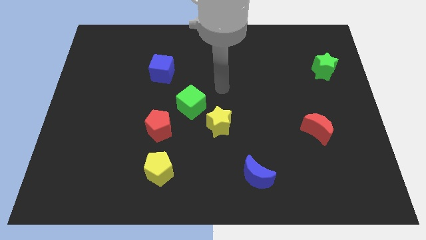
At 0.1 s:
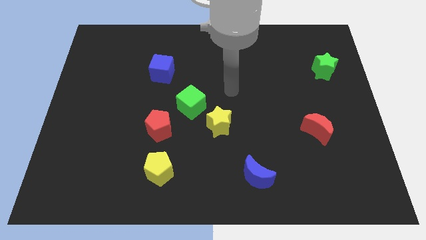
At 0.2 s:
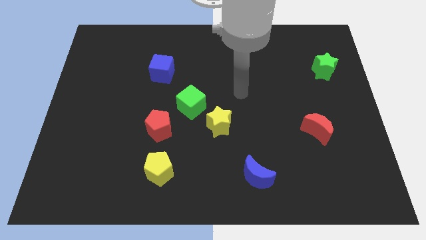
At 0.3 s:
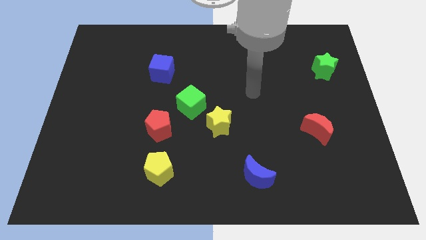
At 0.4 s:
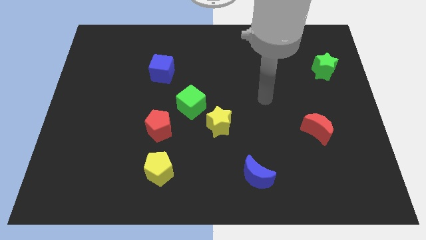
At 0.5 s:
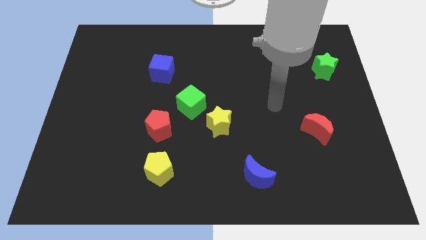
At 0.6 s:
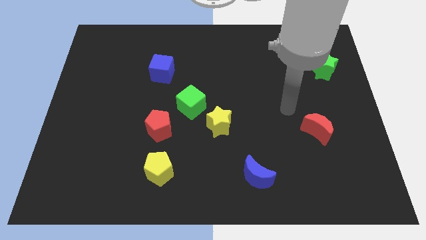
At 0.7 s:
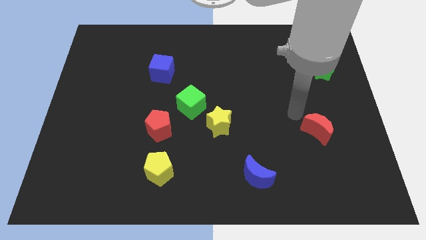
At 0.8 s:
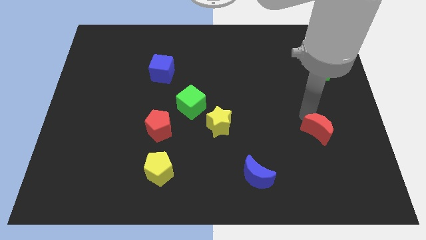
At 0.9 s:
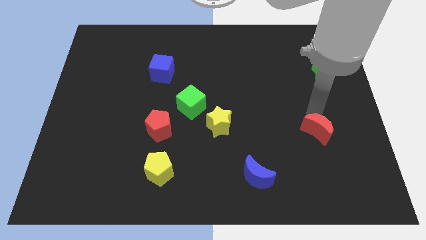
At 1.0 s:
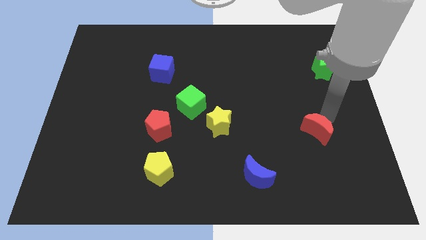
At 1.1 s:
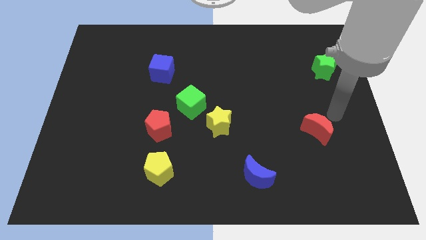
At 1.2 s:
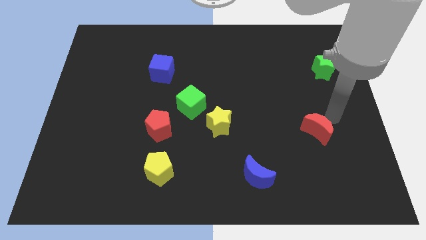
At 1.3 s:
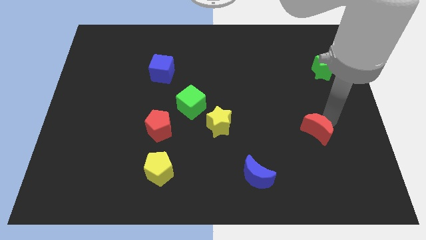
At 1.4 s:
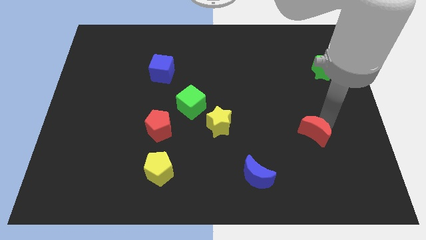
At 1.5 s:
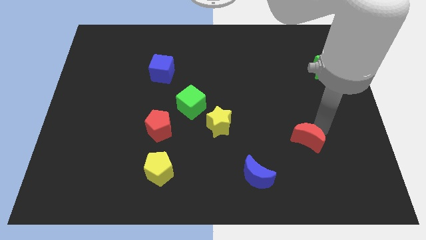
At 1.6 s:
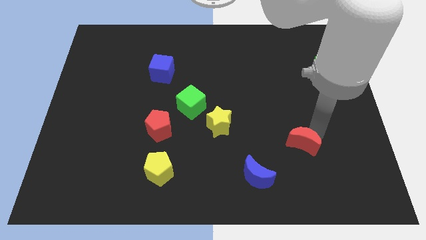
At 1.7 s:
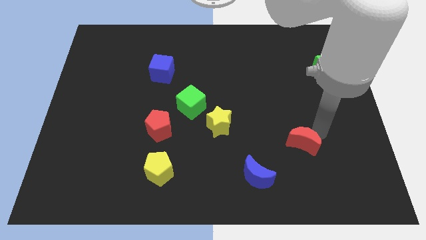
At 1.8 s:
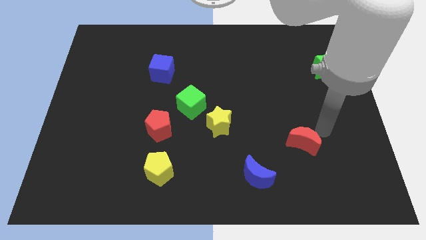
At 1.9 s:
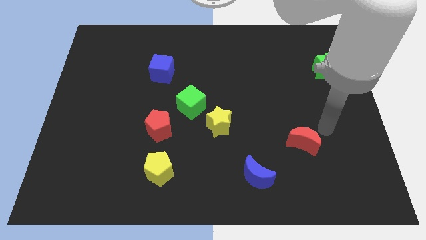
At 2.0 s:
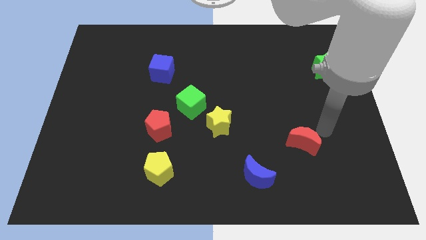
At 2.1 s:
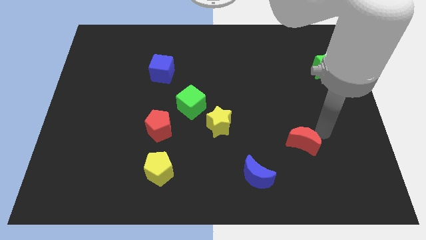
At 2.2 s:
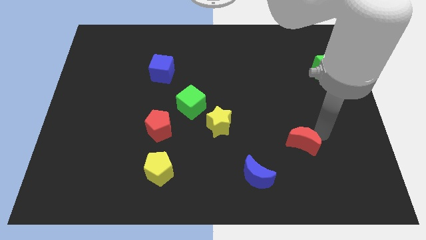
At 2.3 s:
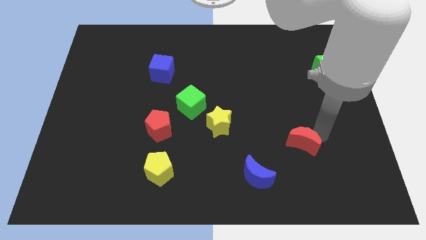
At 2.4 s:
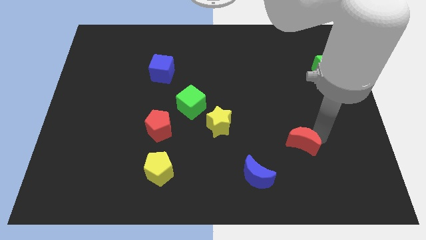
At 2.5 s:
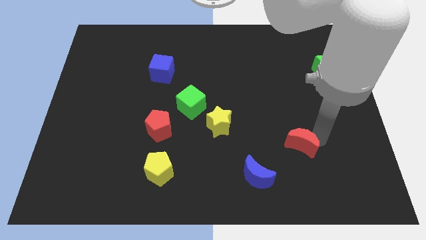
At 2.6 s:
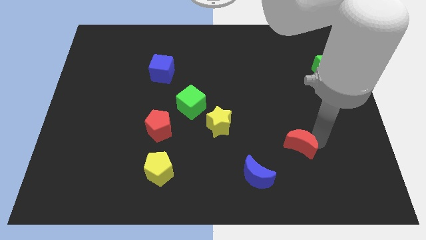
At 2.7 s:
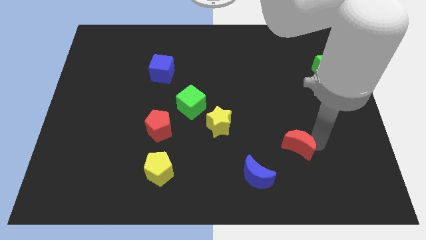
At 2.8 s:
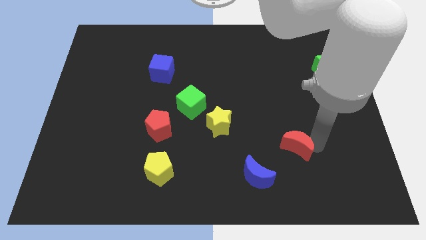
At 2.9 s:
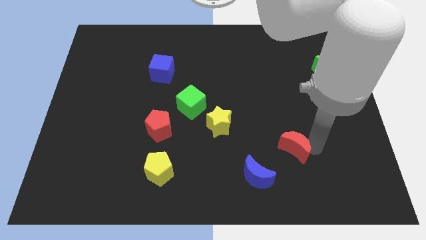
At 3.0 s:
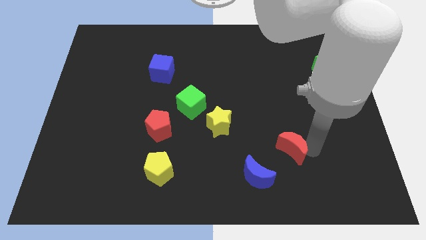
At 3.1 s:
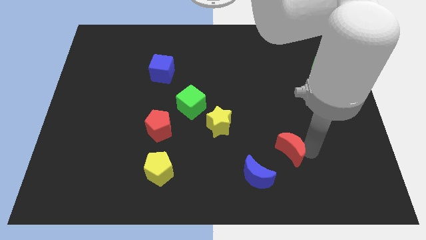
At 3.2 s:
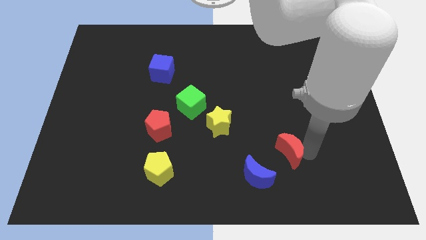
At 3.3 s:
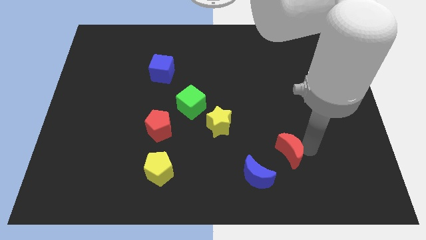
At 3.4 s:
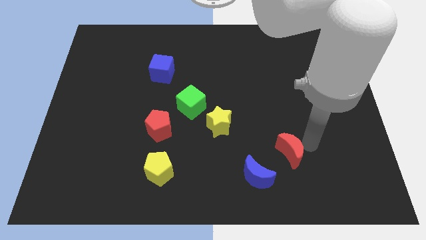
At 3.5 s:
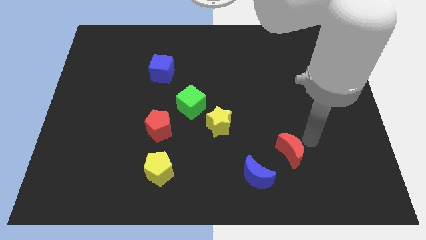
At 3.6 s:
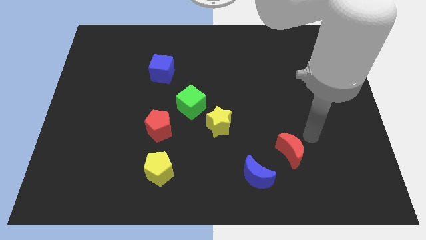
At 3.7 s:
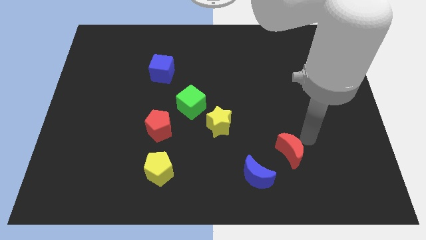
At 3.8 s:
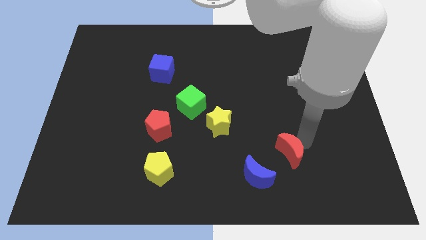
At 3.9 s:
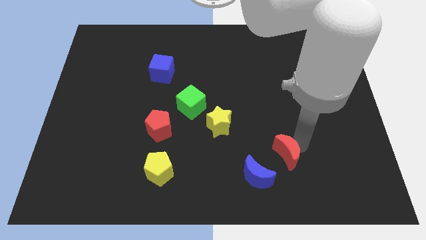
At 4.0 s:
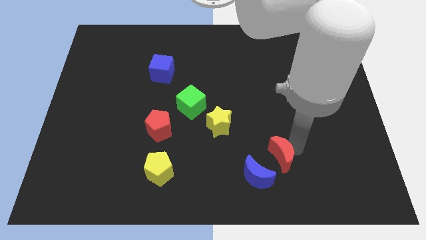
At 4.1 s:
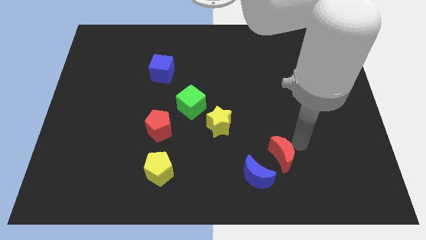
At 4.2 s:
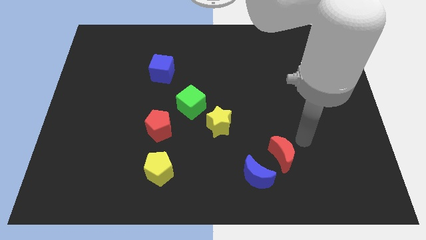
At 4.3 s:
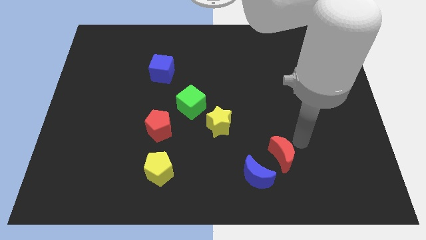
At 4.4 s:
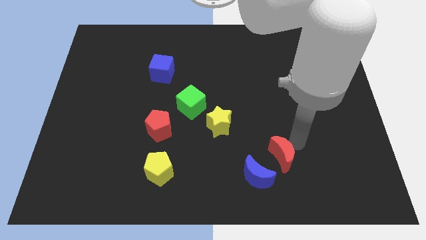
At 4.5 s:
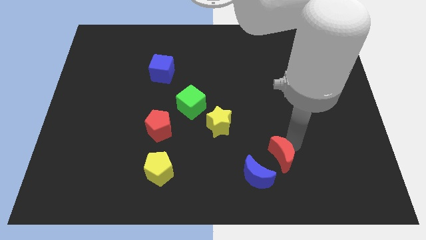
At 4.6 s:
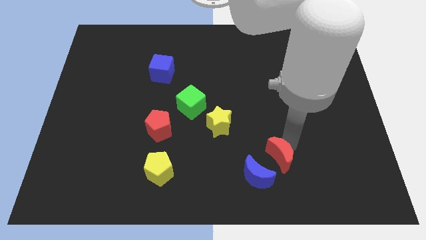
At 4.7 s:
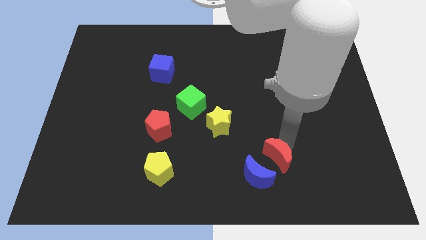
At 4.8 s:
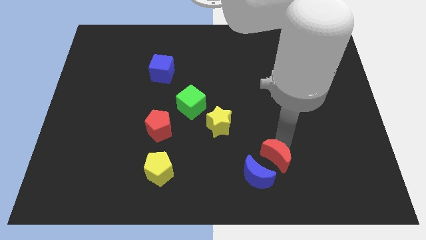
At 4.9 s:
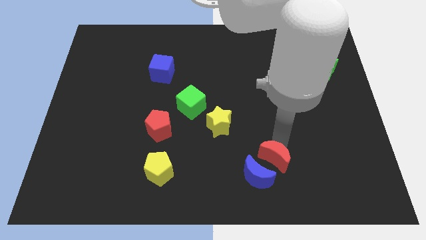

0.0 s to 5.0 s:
move the red moon next to the blue moon

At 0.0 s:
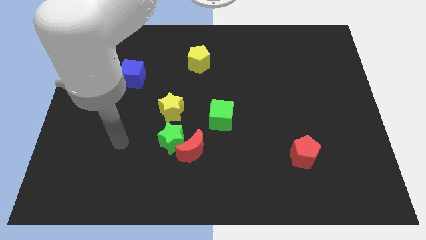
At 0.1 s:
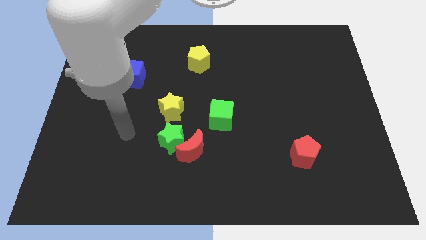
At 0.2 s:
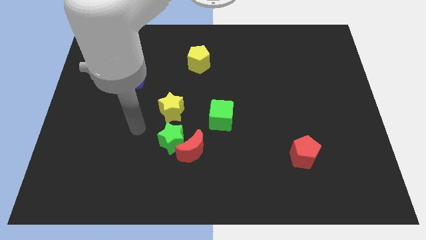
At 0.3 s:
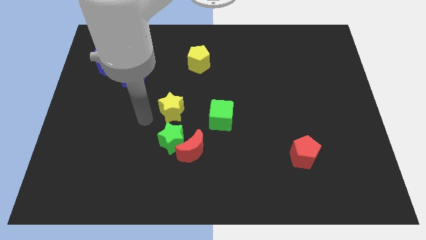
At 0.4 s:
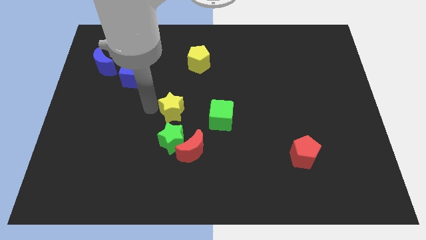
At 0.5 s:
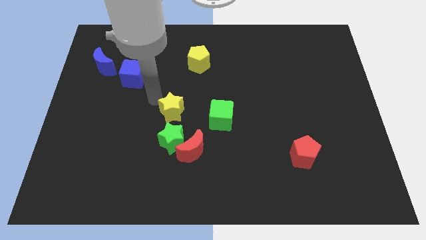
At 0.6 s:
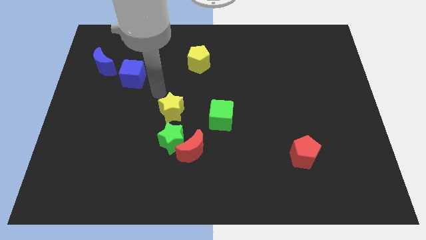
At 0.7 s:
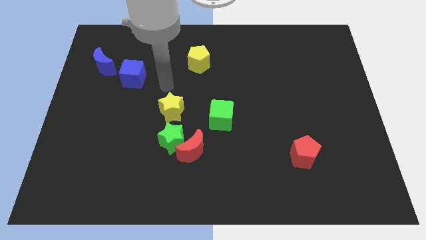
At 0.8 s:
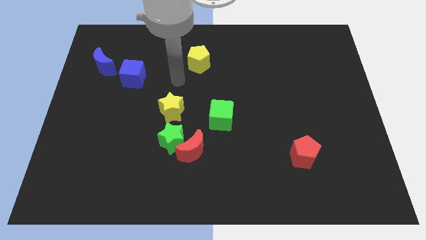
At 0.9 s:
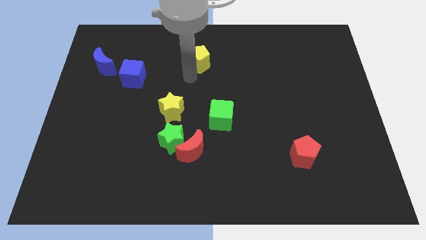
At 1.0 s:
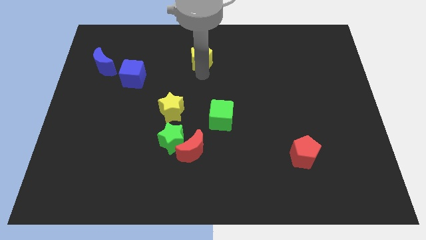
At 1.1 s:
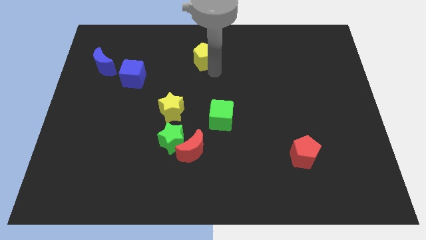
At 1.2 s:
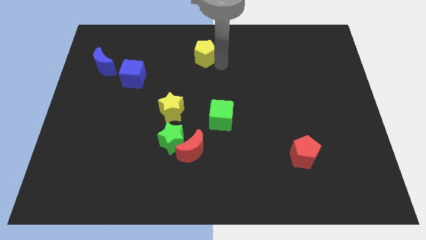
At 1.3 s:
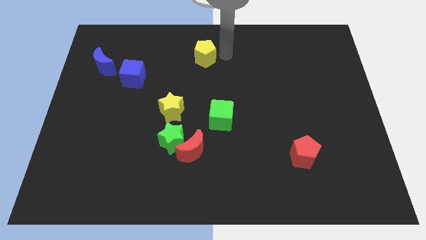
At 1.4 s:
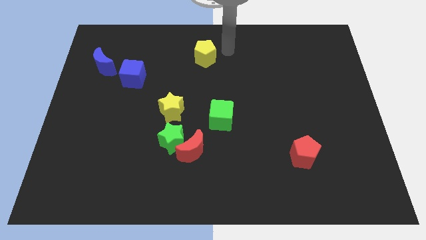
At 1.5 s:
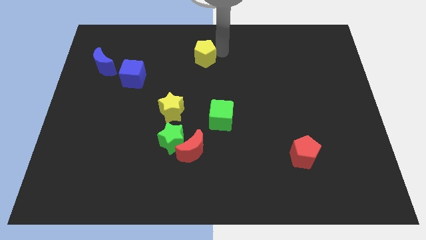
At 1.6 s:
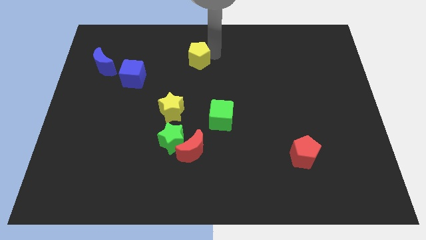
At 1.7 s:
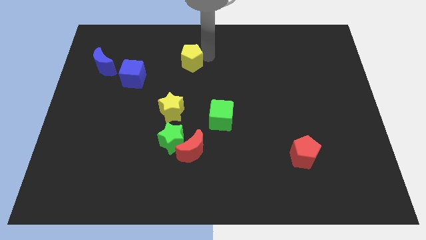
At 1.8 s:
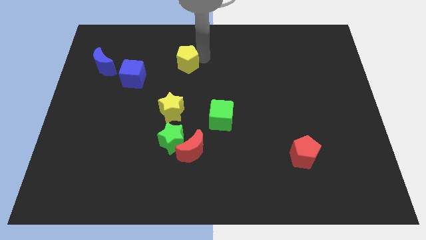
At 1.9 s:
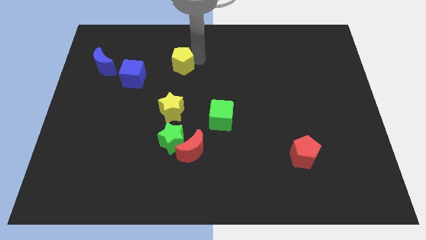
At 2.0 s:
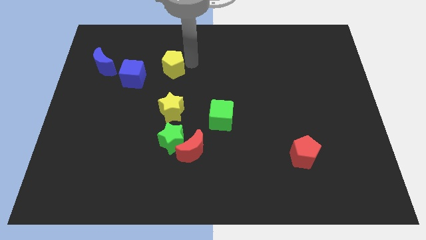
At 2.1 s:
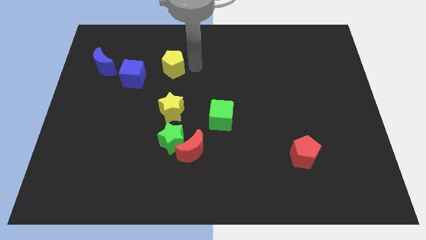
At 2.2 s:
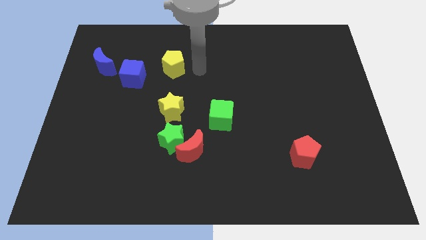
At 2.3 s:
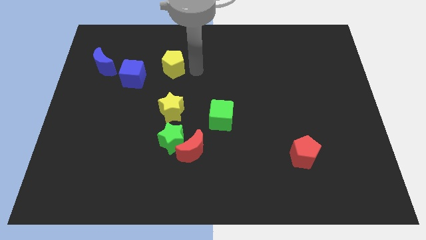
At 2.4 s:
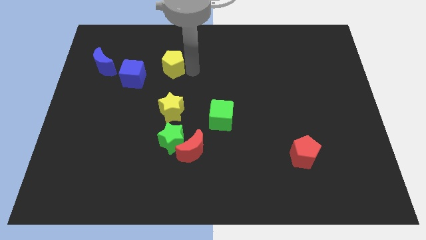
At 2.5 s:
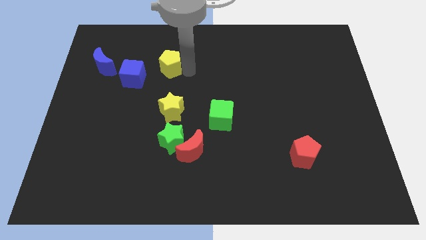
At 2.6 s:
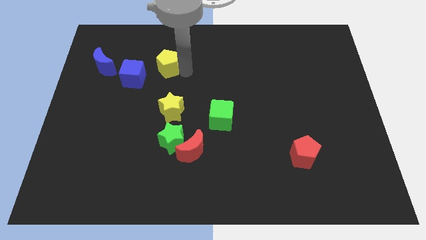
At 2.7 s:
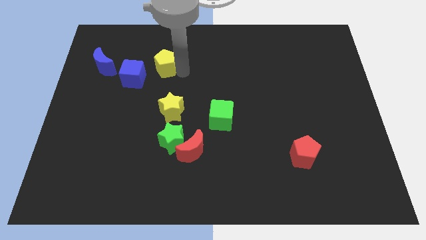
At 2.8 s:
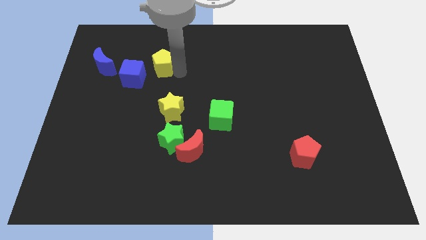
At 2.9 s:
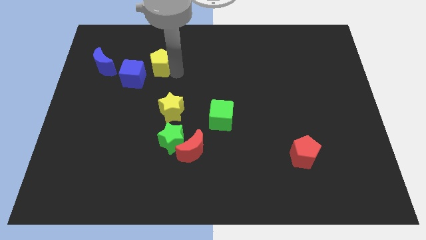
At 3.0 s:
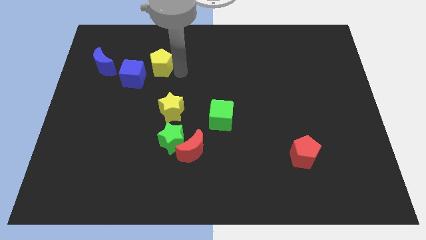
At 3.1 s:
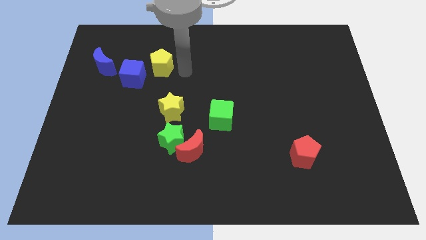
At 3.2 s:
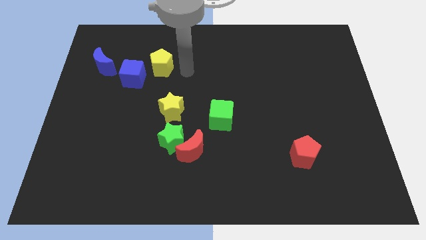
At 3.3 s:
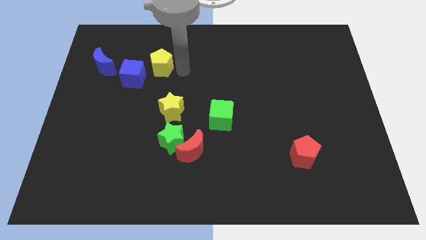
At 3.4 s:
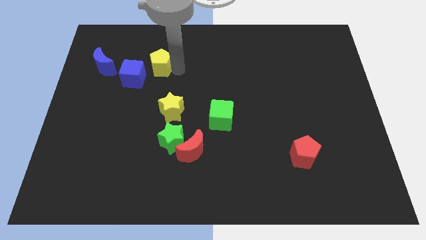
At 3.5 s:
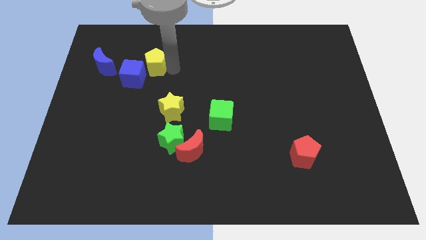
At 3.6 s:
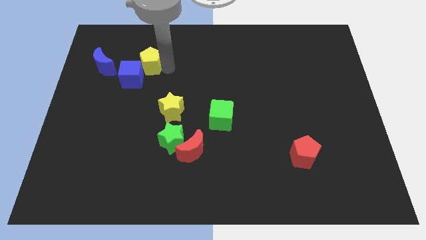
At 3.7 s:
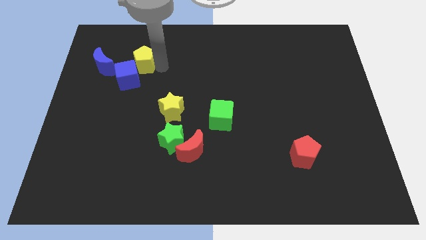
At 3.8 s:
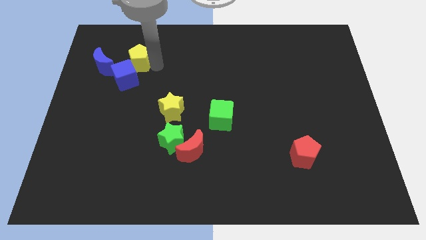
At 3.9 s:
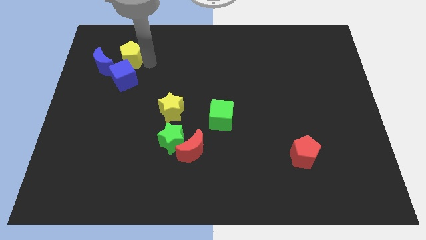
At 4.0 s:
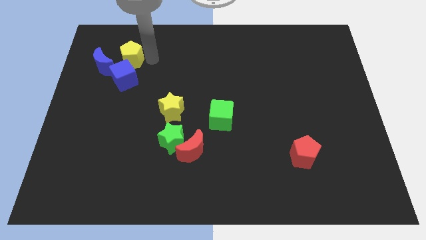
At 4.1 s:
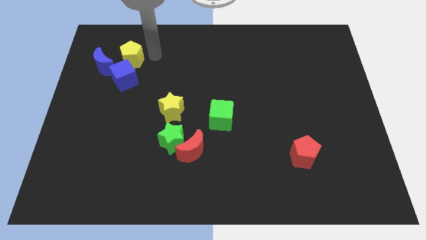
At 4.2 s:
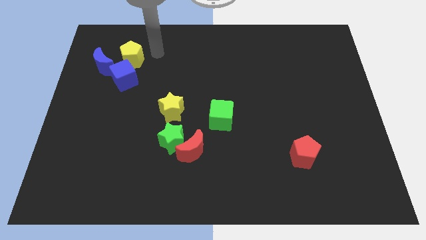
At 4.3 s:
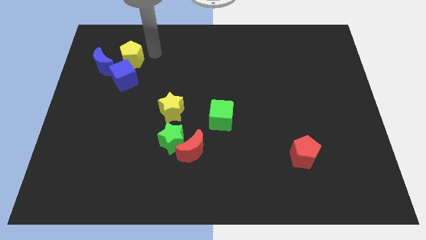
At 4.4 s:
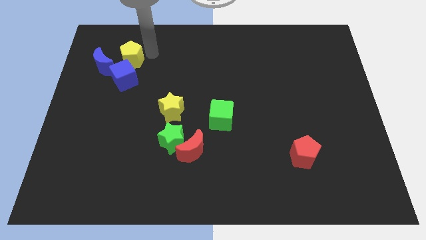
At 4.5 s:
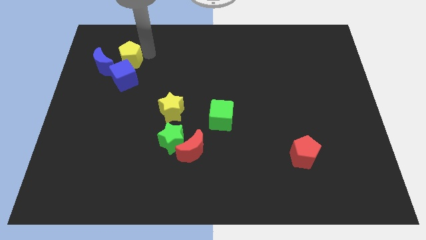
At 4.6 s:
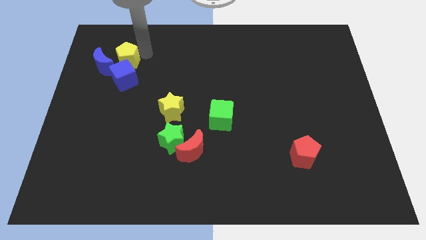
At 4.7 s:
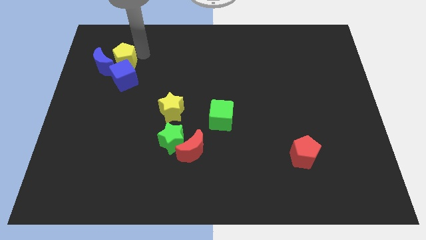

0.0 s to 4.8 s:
slide the yellow pentagon next to the blue moon
